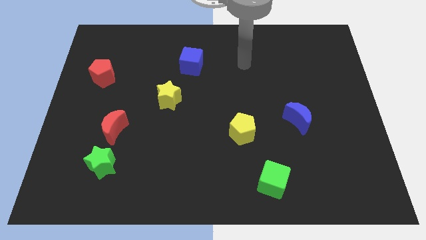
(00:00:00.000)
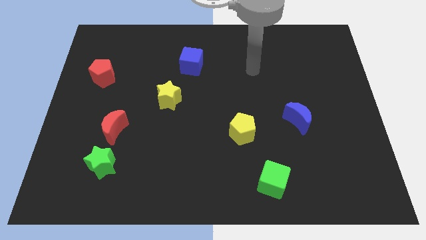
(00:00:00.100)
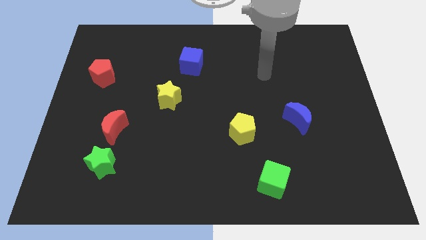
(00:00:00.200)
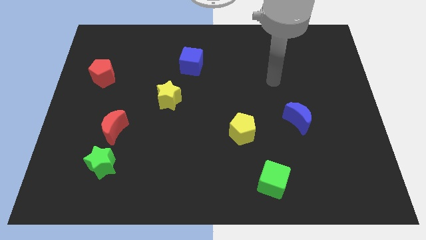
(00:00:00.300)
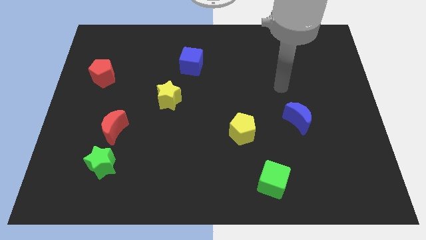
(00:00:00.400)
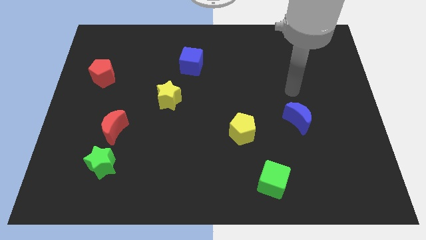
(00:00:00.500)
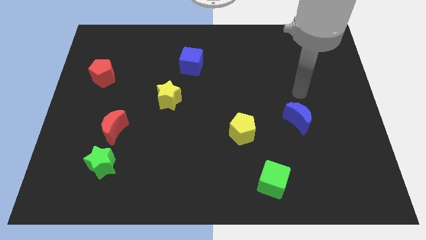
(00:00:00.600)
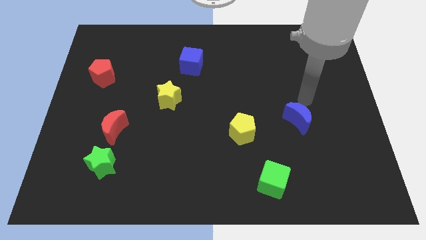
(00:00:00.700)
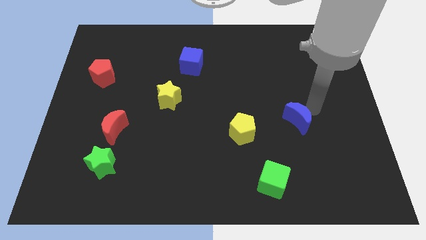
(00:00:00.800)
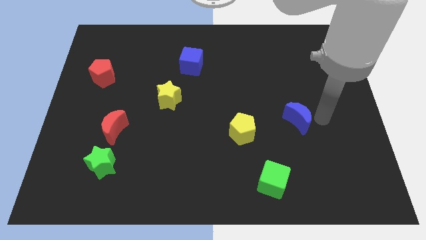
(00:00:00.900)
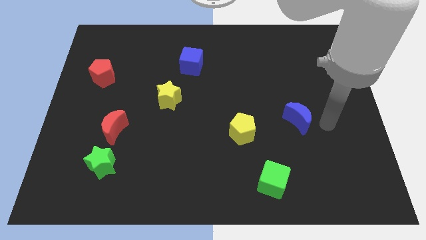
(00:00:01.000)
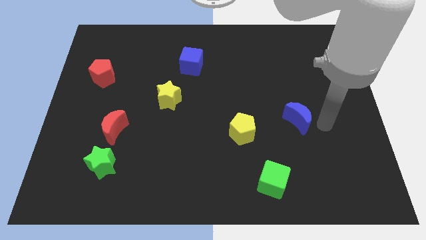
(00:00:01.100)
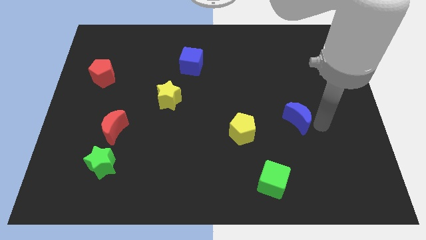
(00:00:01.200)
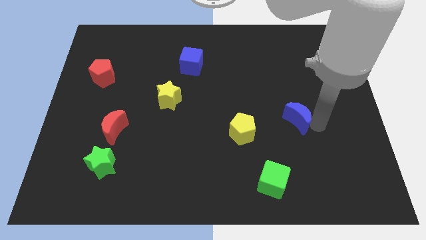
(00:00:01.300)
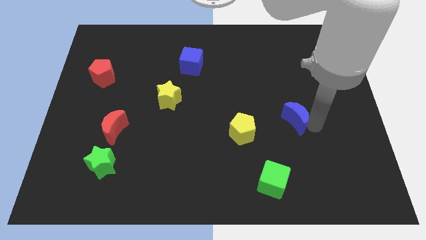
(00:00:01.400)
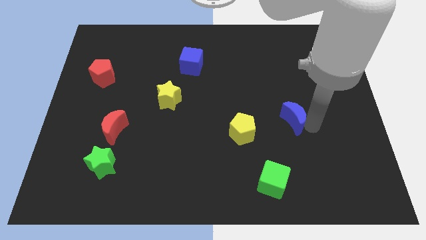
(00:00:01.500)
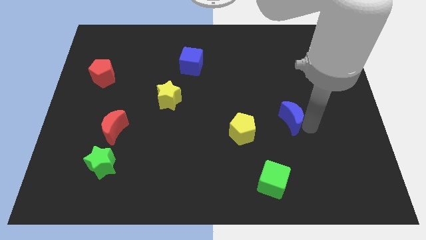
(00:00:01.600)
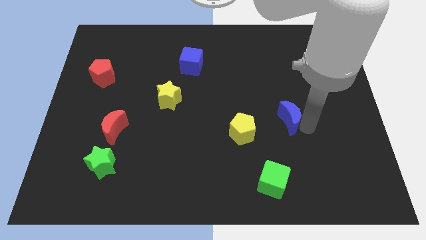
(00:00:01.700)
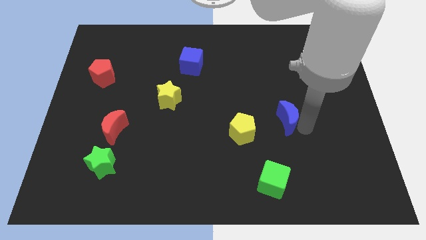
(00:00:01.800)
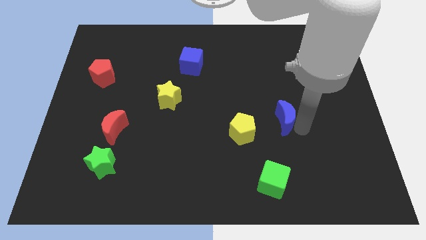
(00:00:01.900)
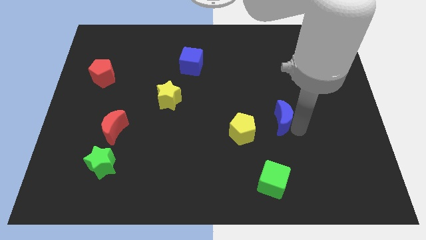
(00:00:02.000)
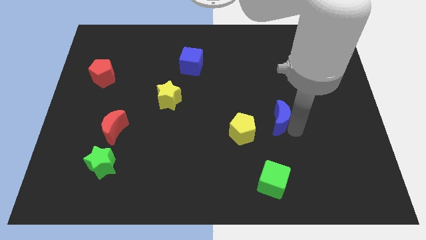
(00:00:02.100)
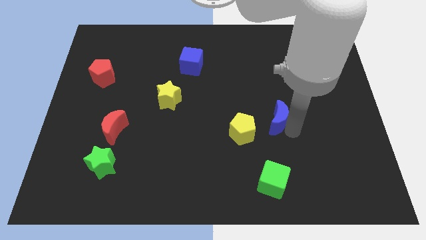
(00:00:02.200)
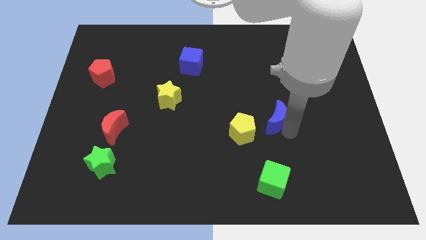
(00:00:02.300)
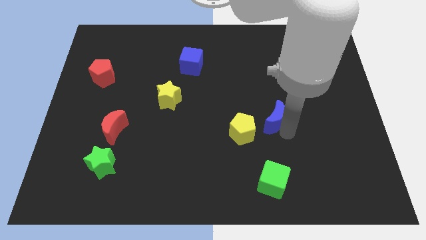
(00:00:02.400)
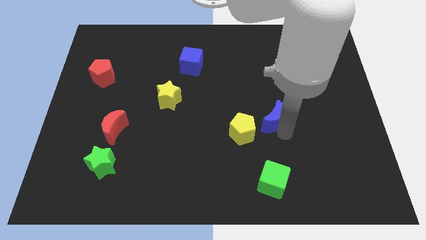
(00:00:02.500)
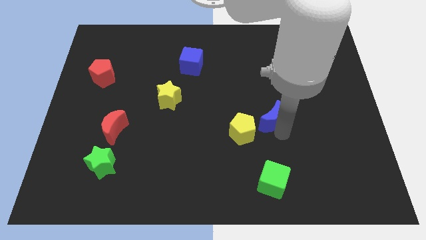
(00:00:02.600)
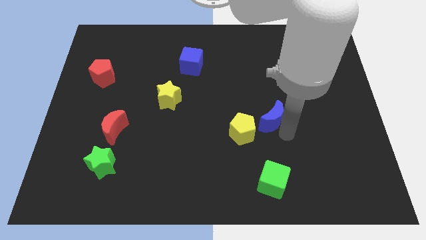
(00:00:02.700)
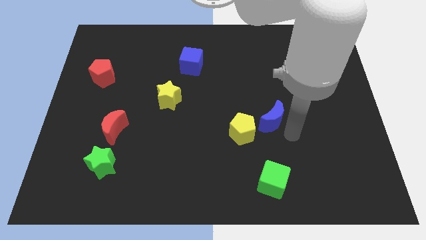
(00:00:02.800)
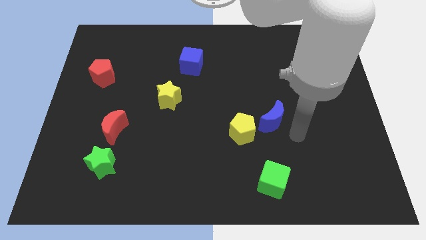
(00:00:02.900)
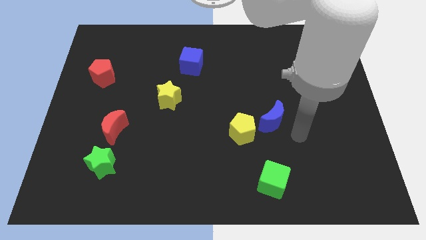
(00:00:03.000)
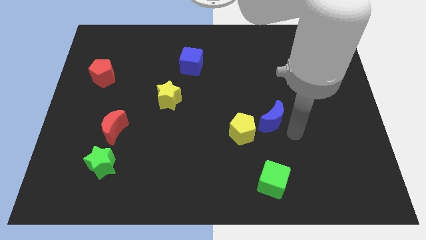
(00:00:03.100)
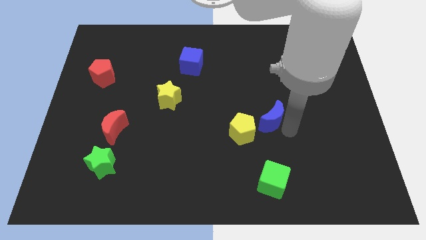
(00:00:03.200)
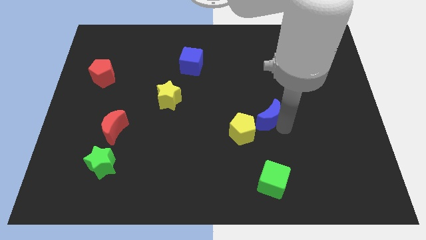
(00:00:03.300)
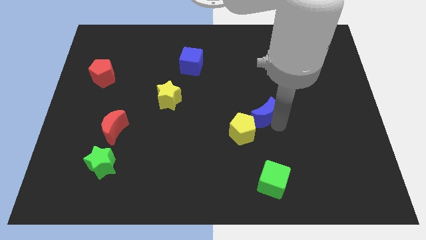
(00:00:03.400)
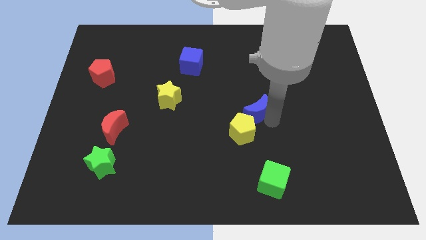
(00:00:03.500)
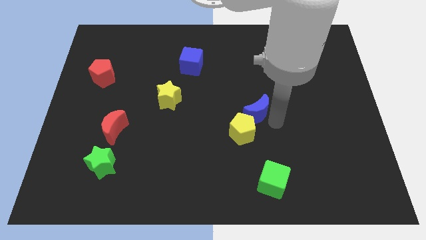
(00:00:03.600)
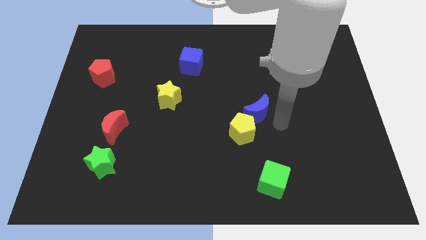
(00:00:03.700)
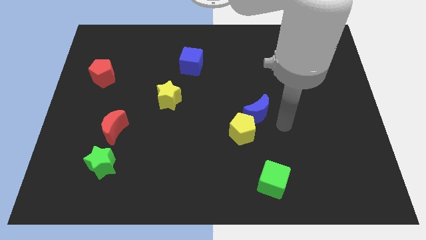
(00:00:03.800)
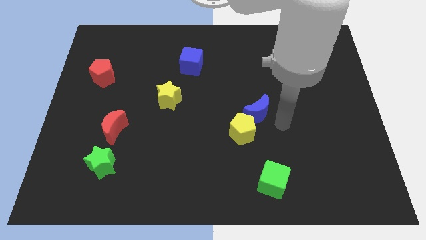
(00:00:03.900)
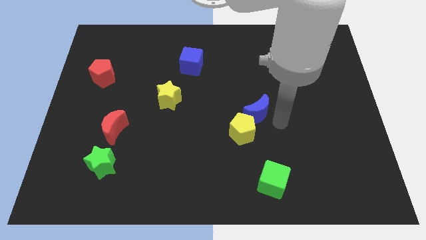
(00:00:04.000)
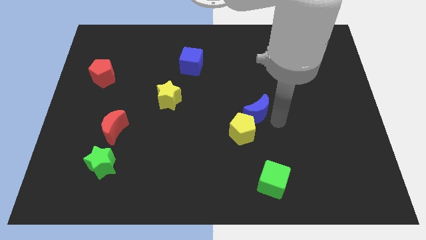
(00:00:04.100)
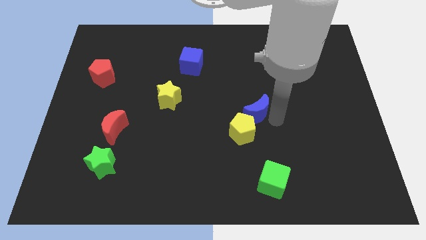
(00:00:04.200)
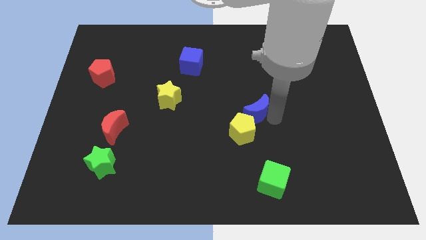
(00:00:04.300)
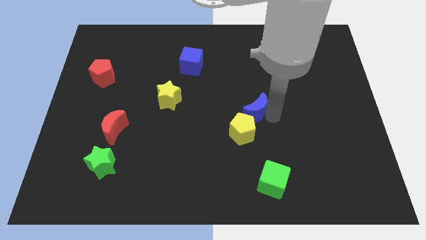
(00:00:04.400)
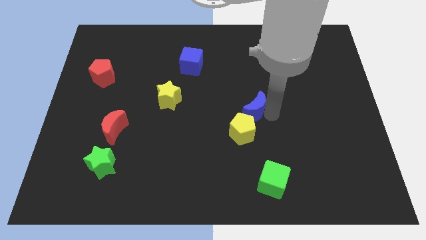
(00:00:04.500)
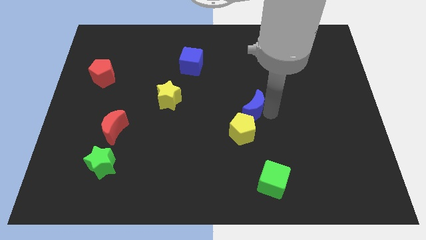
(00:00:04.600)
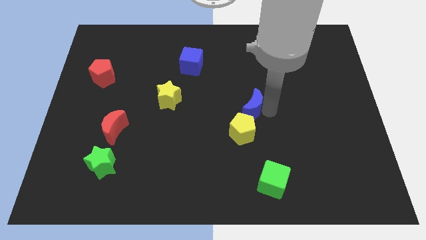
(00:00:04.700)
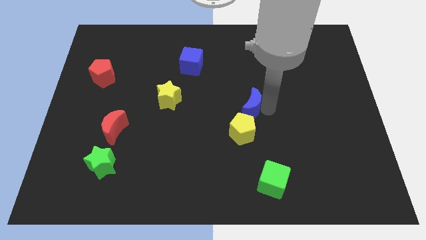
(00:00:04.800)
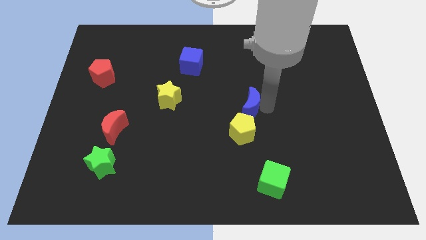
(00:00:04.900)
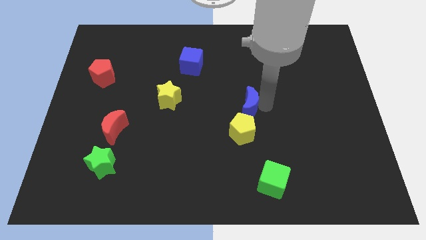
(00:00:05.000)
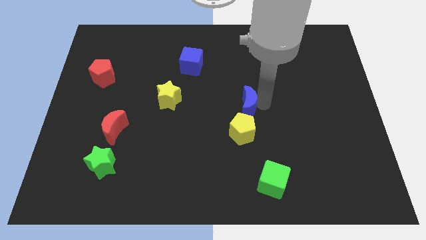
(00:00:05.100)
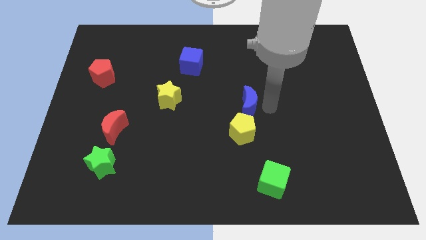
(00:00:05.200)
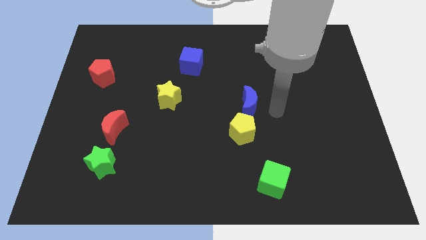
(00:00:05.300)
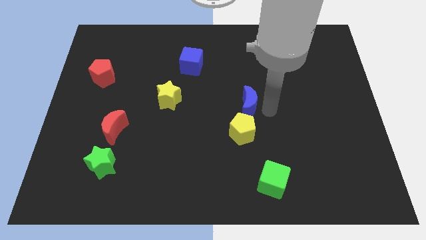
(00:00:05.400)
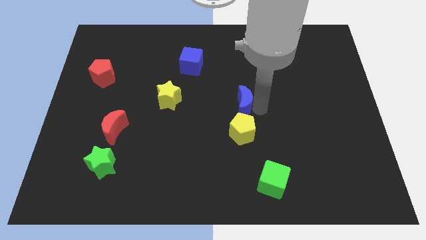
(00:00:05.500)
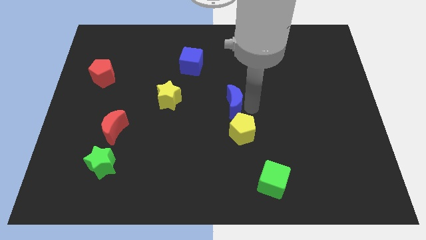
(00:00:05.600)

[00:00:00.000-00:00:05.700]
push the blue moon right of the yellow star

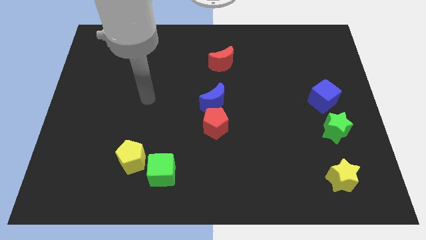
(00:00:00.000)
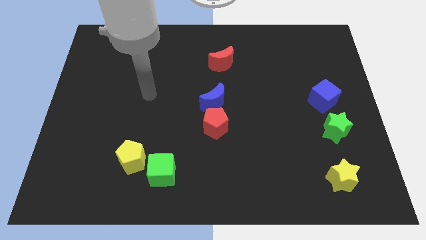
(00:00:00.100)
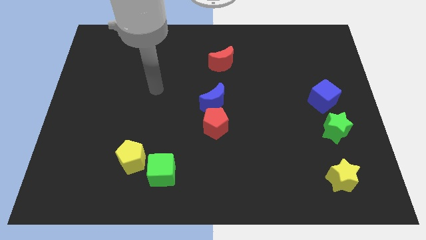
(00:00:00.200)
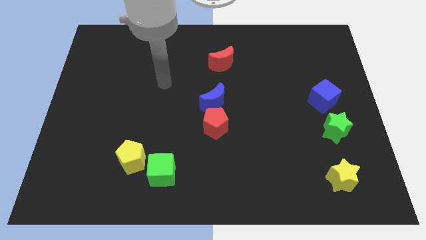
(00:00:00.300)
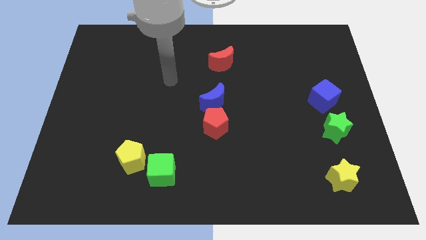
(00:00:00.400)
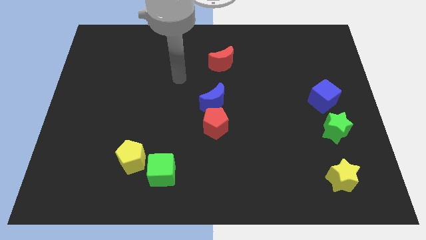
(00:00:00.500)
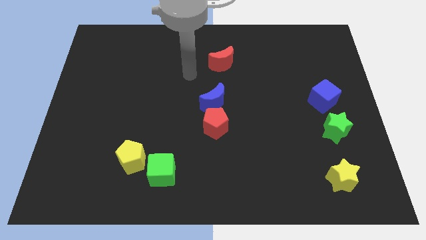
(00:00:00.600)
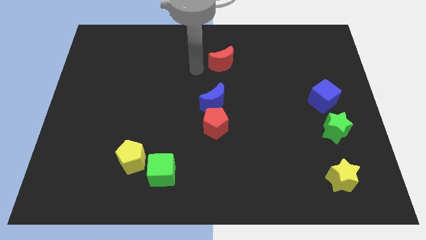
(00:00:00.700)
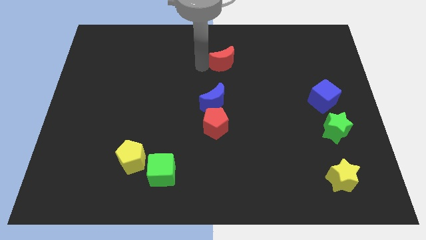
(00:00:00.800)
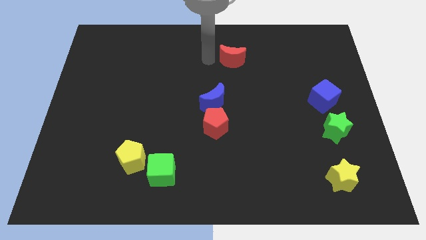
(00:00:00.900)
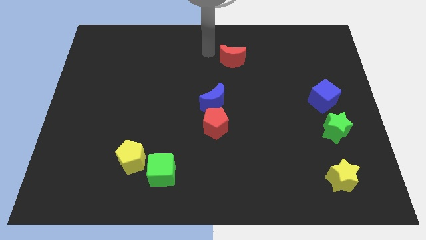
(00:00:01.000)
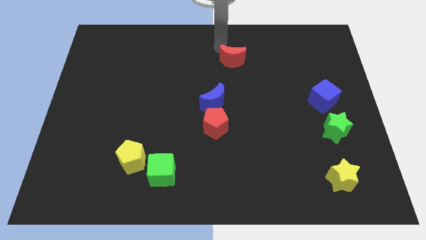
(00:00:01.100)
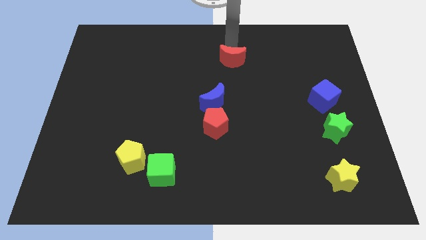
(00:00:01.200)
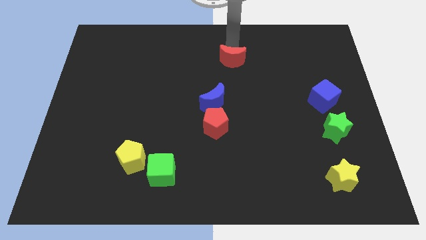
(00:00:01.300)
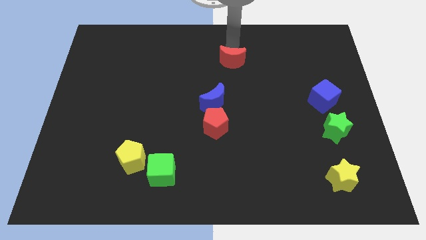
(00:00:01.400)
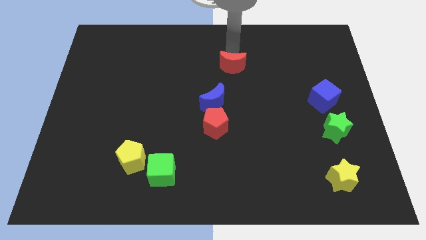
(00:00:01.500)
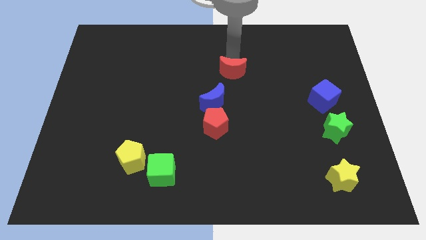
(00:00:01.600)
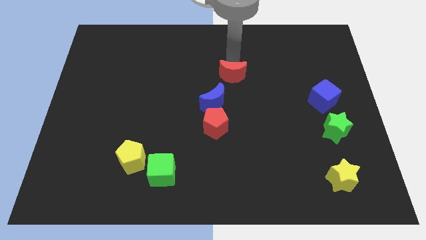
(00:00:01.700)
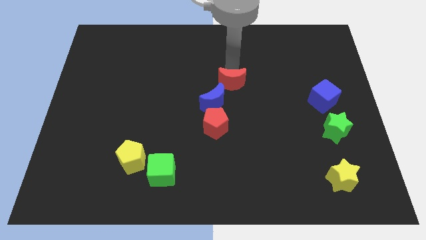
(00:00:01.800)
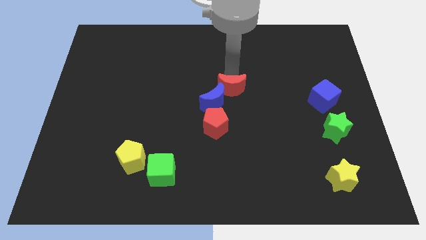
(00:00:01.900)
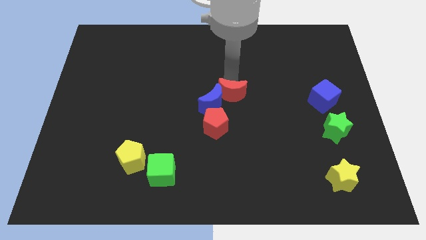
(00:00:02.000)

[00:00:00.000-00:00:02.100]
push the red moon to the top right side of the red pentagon
